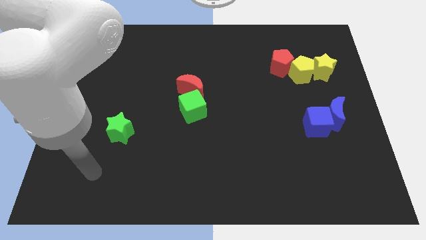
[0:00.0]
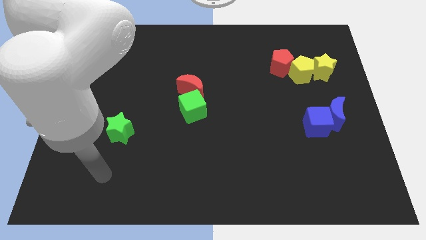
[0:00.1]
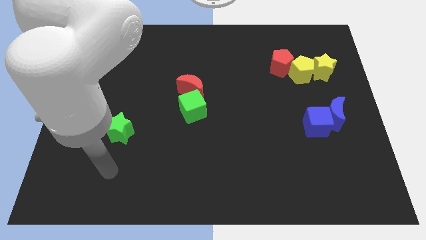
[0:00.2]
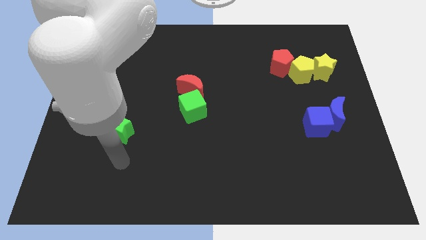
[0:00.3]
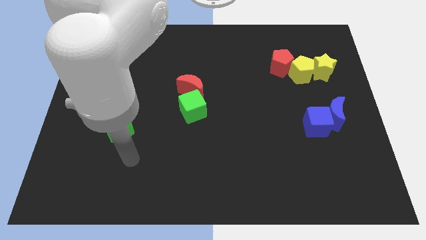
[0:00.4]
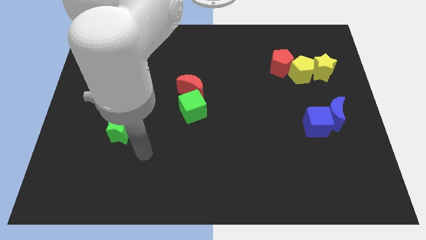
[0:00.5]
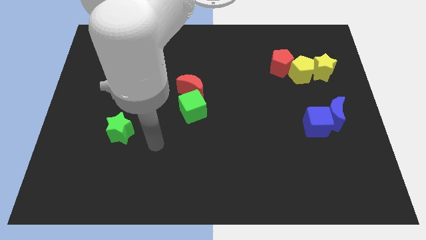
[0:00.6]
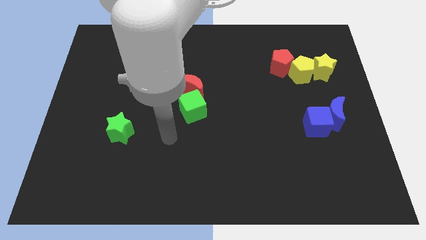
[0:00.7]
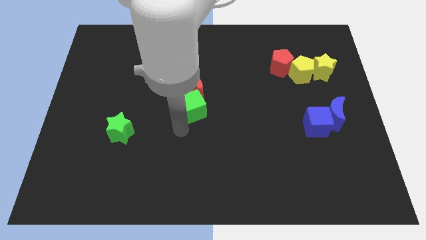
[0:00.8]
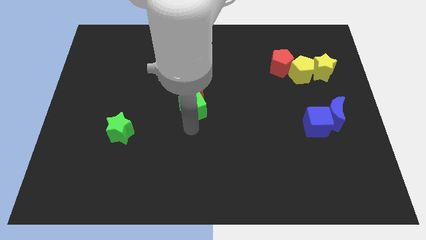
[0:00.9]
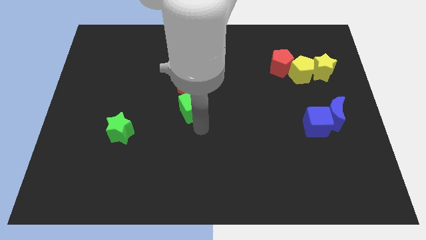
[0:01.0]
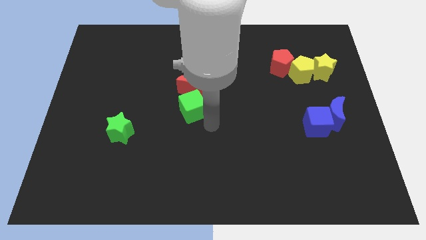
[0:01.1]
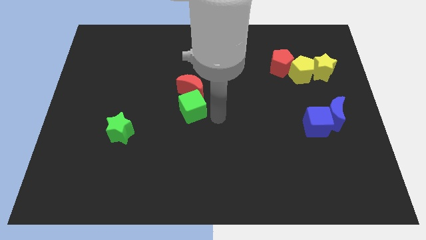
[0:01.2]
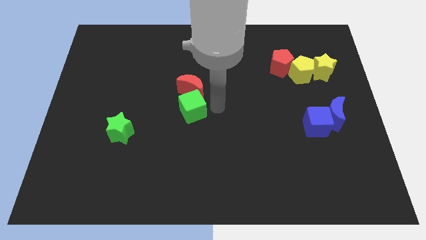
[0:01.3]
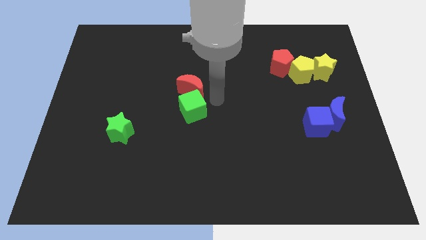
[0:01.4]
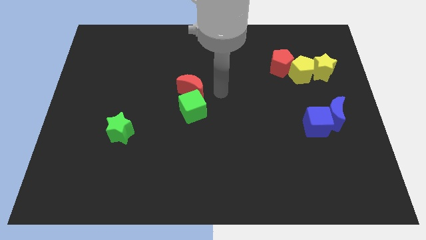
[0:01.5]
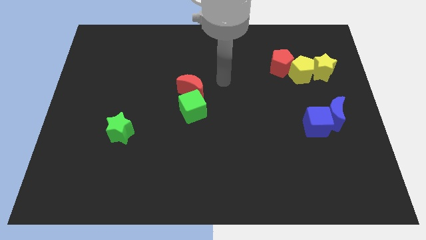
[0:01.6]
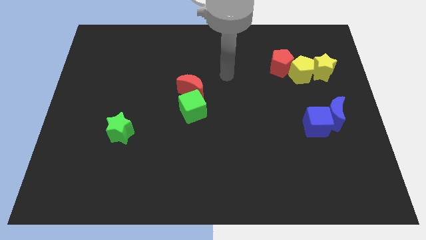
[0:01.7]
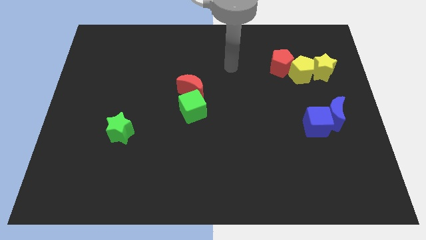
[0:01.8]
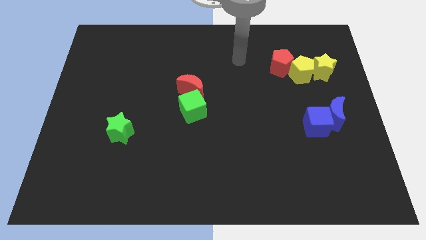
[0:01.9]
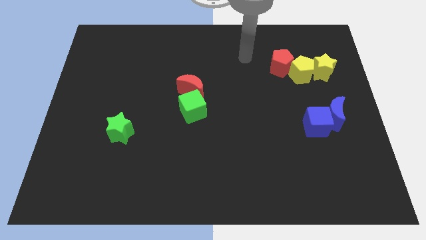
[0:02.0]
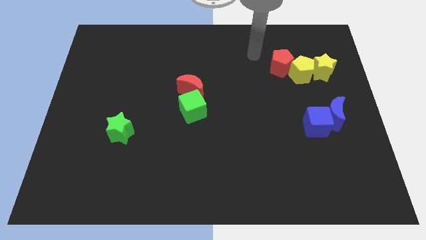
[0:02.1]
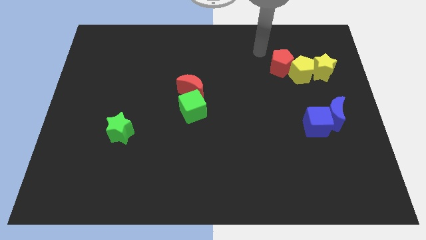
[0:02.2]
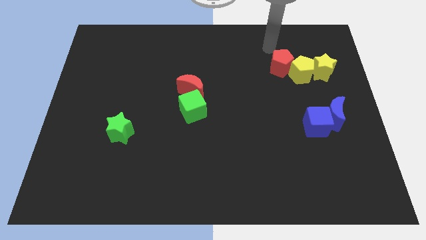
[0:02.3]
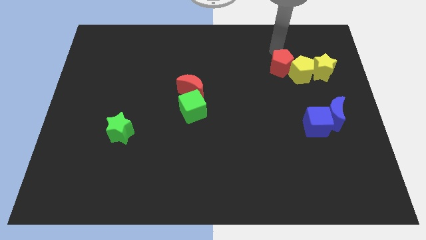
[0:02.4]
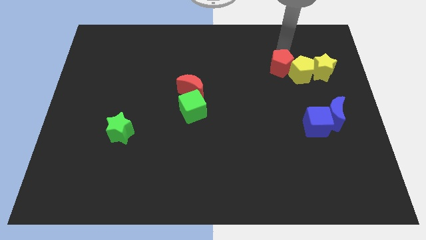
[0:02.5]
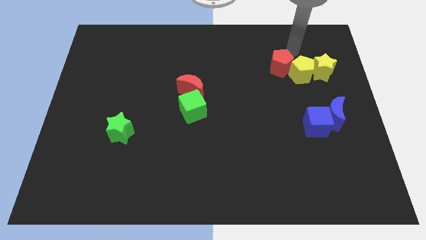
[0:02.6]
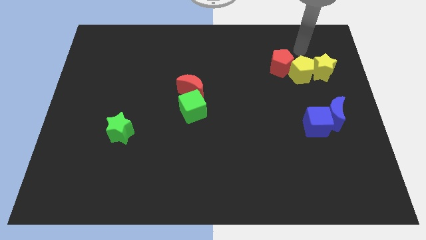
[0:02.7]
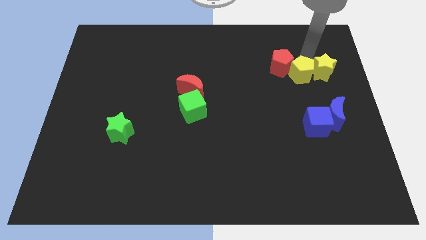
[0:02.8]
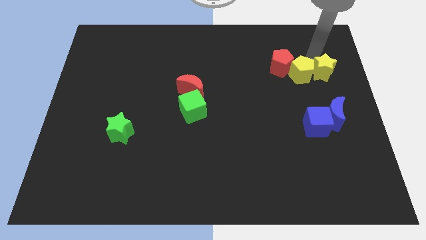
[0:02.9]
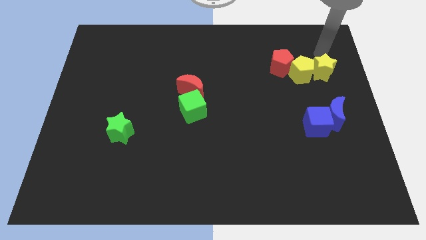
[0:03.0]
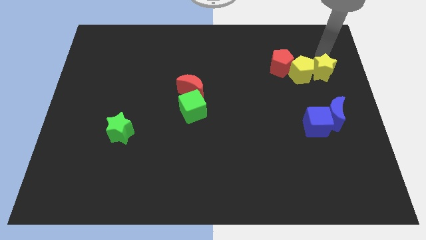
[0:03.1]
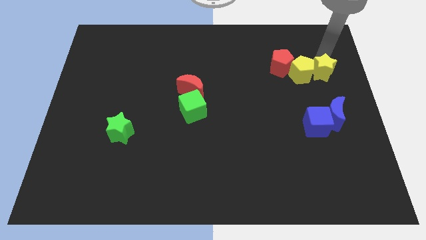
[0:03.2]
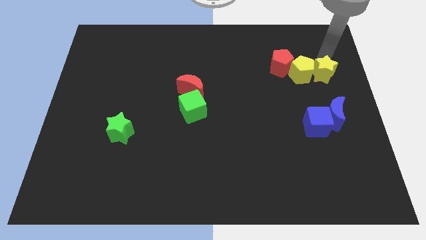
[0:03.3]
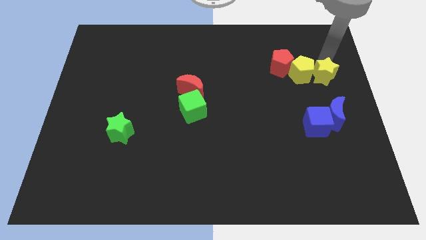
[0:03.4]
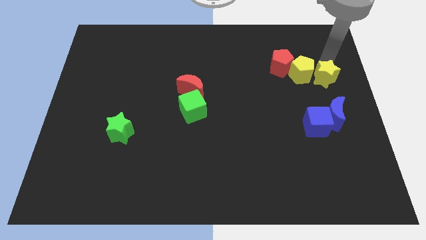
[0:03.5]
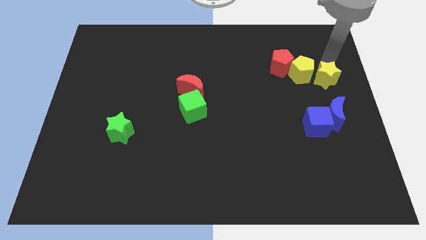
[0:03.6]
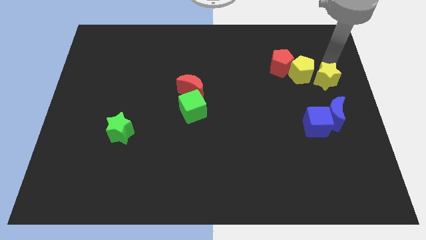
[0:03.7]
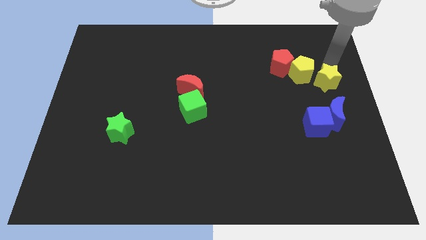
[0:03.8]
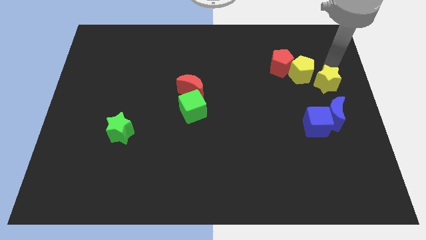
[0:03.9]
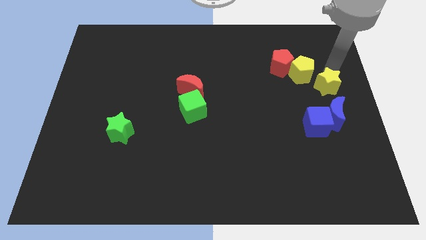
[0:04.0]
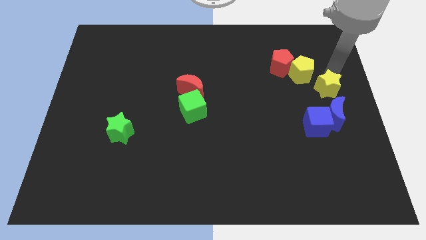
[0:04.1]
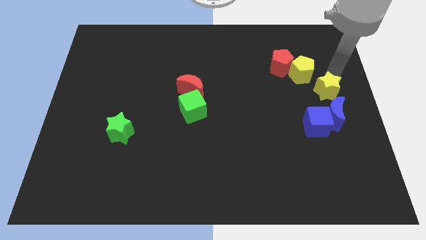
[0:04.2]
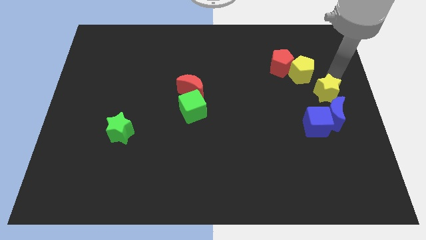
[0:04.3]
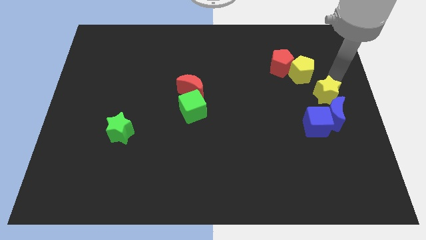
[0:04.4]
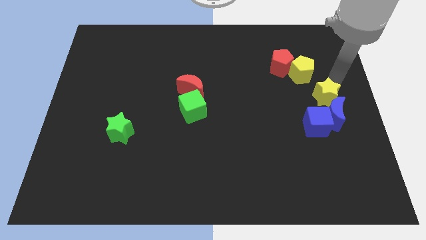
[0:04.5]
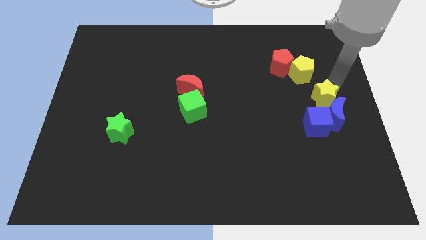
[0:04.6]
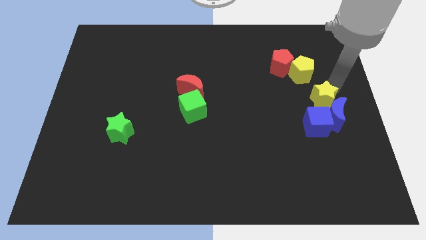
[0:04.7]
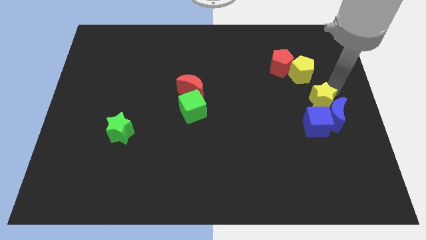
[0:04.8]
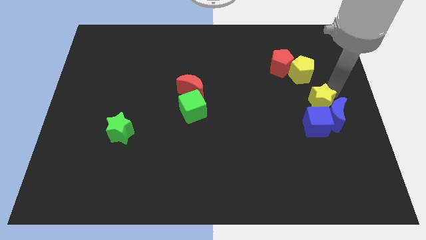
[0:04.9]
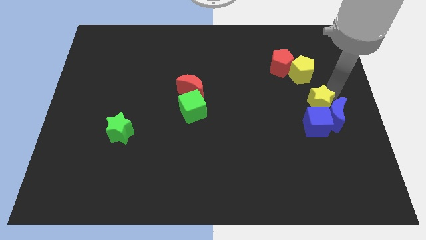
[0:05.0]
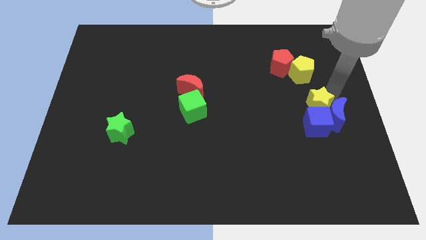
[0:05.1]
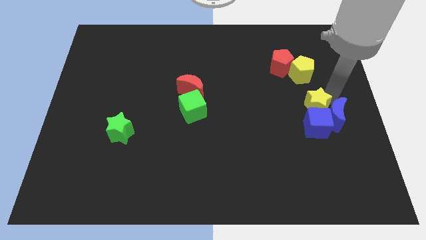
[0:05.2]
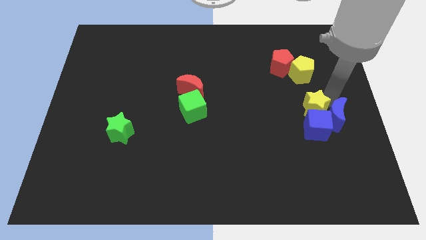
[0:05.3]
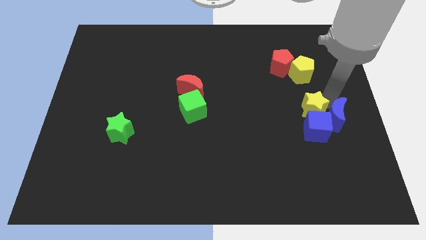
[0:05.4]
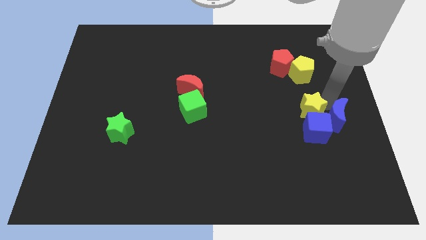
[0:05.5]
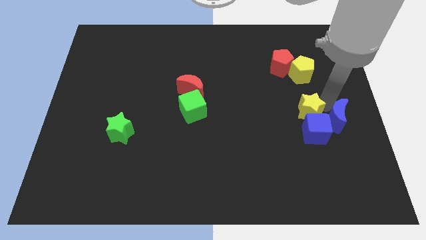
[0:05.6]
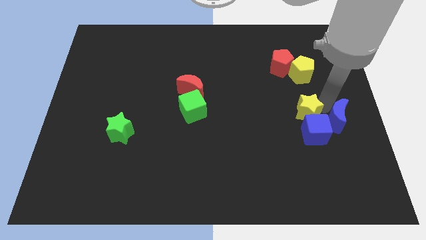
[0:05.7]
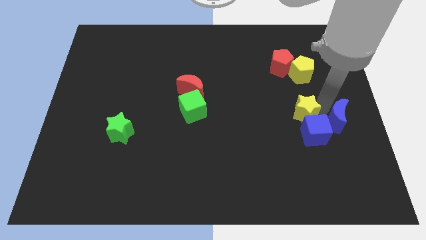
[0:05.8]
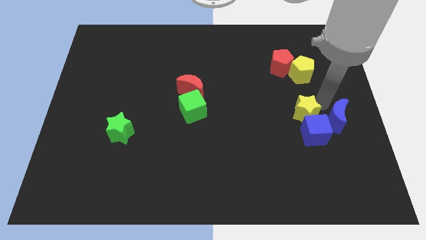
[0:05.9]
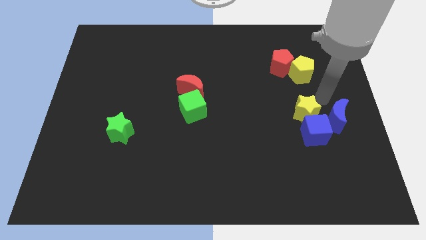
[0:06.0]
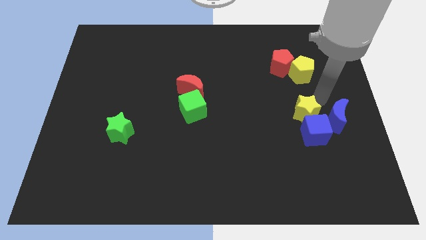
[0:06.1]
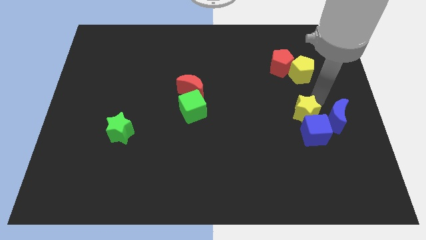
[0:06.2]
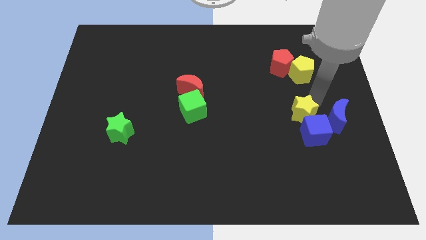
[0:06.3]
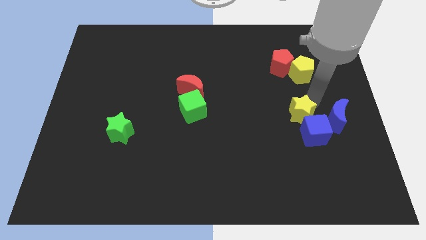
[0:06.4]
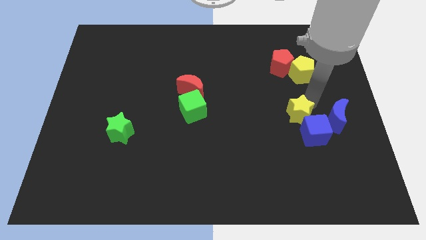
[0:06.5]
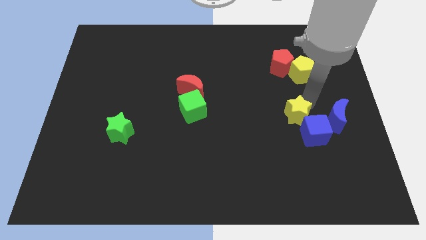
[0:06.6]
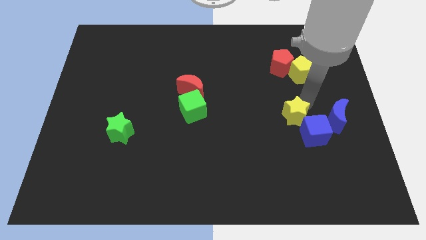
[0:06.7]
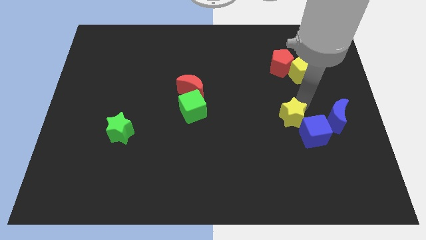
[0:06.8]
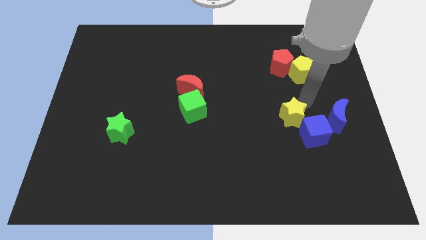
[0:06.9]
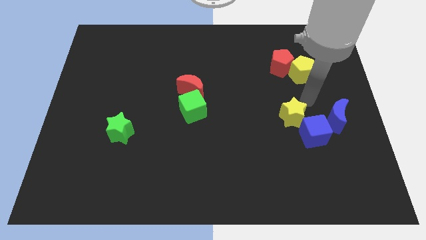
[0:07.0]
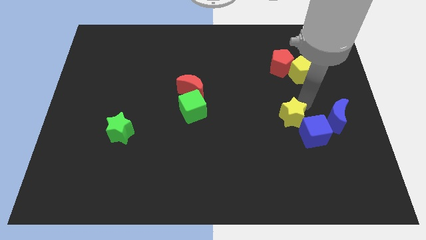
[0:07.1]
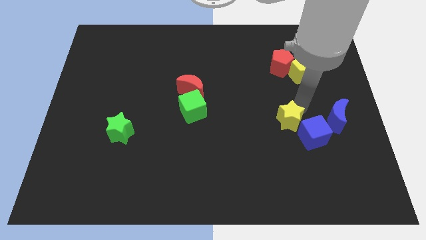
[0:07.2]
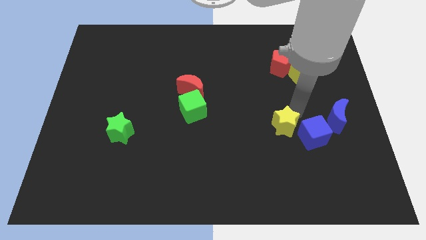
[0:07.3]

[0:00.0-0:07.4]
move the yellow star downwards and left

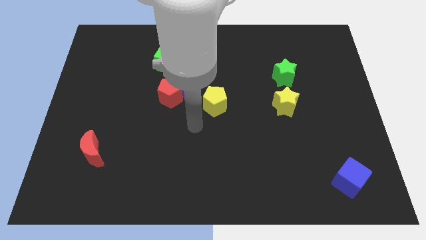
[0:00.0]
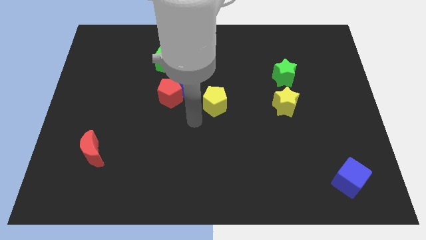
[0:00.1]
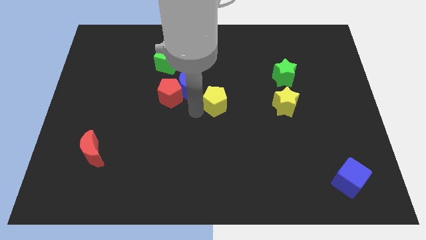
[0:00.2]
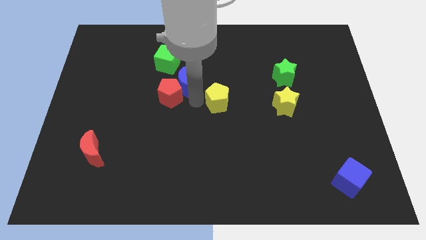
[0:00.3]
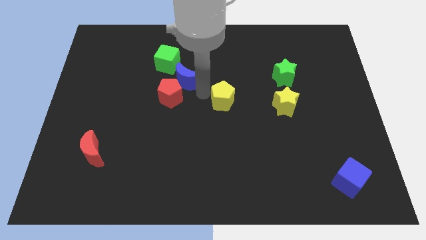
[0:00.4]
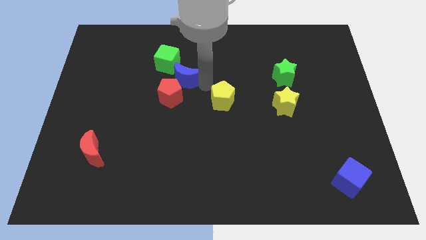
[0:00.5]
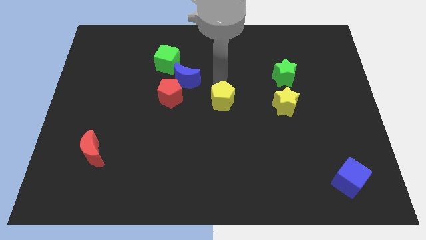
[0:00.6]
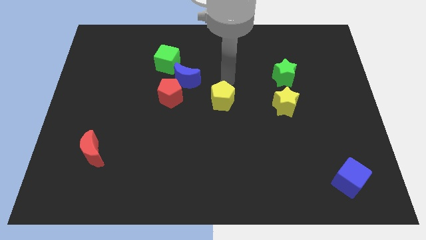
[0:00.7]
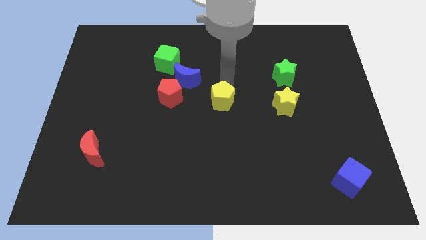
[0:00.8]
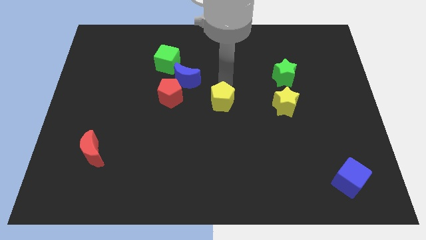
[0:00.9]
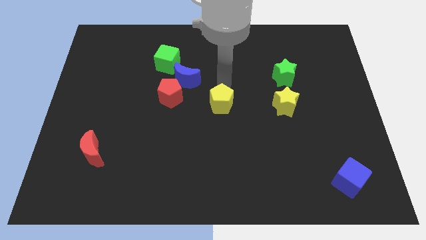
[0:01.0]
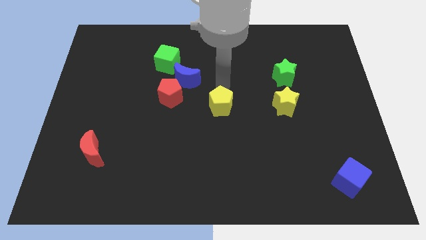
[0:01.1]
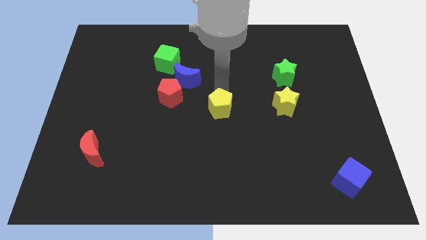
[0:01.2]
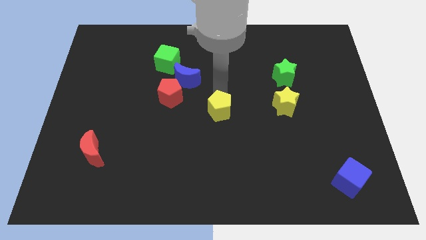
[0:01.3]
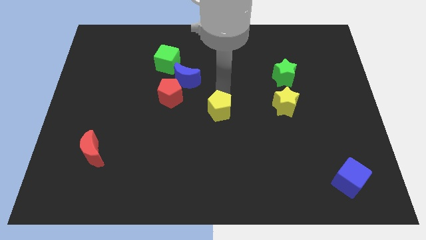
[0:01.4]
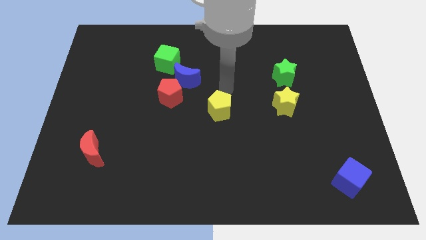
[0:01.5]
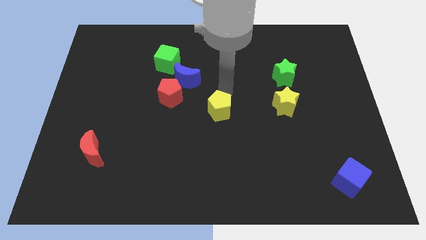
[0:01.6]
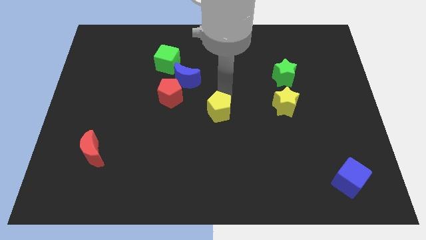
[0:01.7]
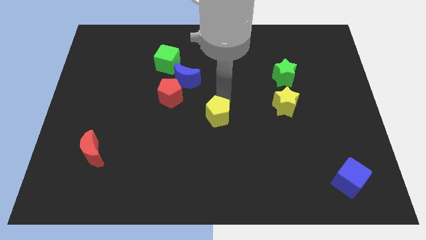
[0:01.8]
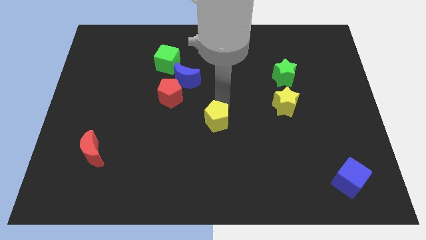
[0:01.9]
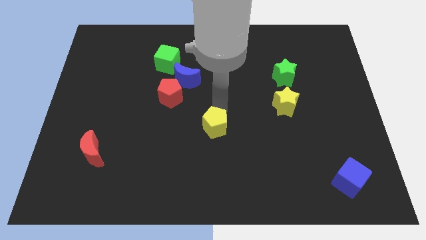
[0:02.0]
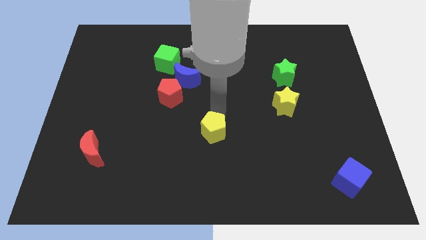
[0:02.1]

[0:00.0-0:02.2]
move the yellow pentagon downwards slightly
